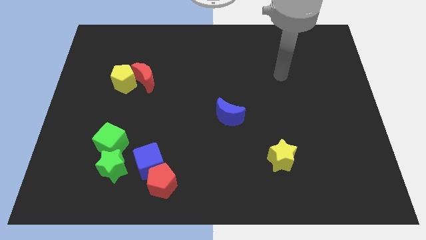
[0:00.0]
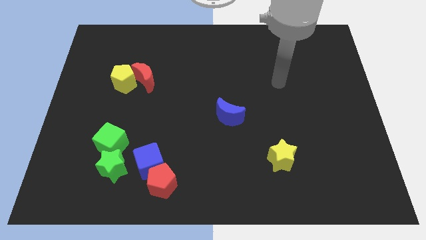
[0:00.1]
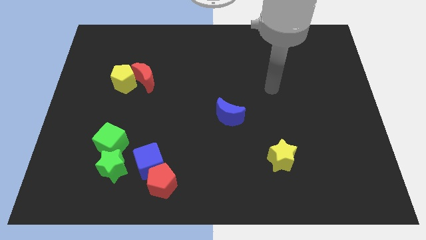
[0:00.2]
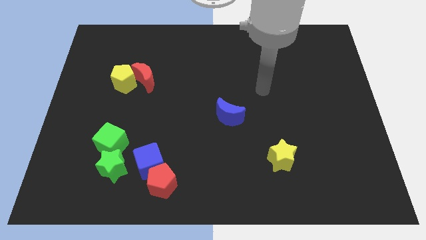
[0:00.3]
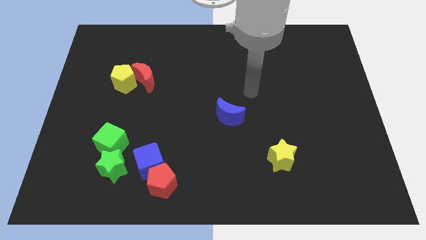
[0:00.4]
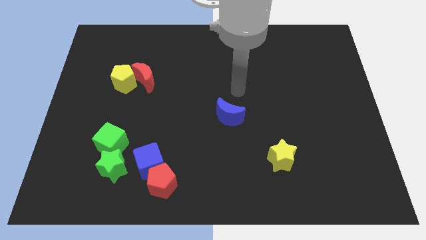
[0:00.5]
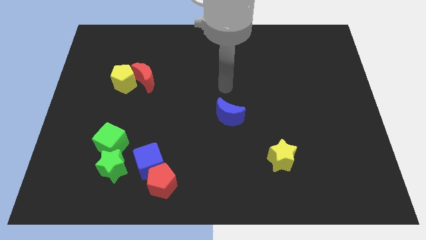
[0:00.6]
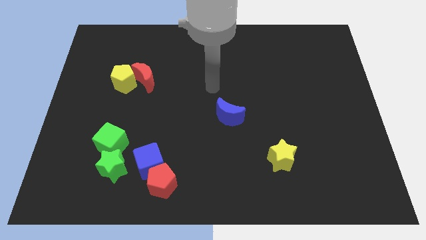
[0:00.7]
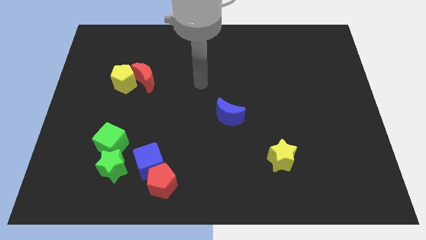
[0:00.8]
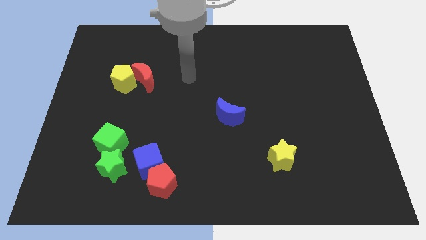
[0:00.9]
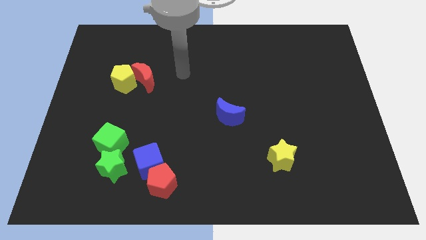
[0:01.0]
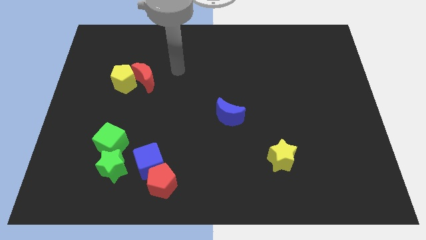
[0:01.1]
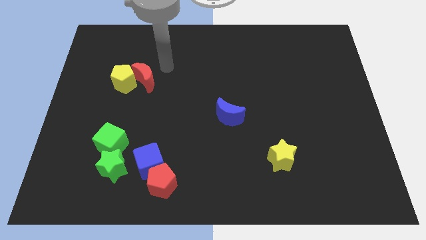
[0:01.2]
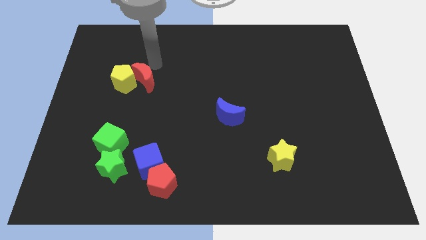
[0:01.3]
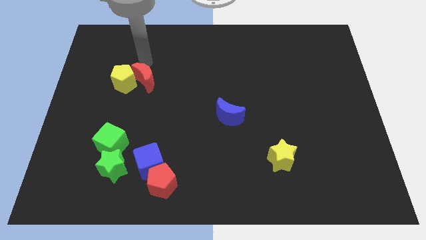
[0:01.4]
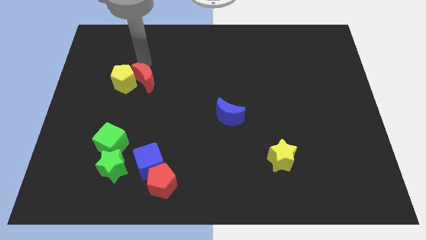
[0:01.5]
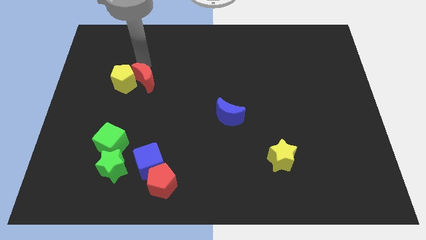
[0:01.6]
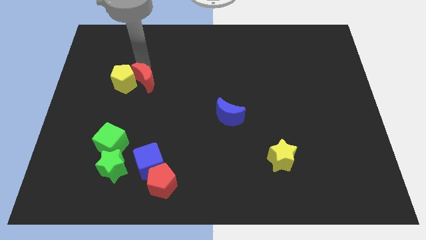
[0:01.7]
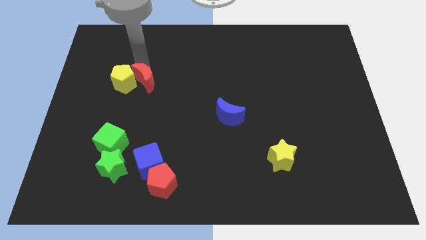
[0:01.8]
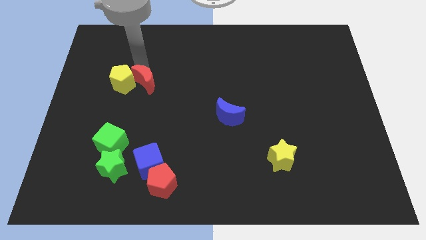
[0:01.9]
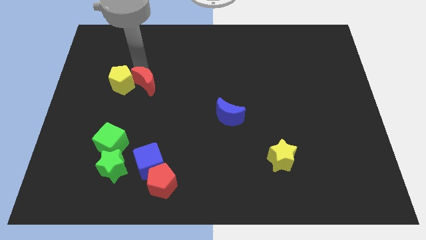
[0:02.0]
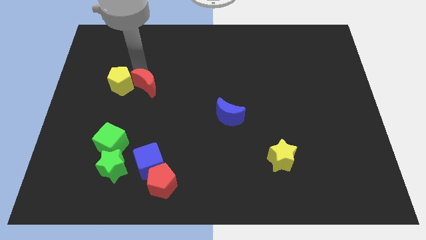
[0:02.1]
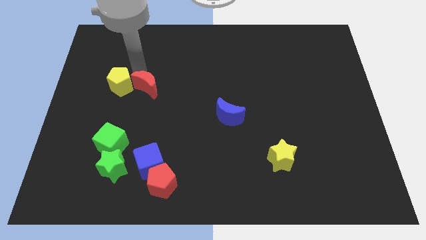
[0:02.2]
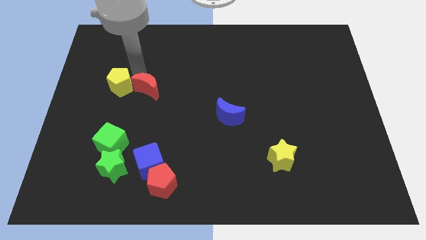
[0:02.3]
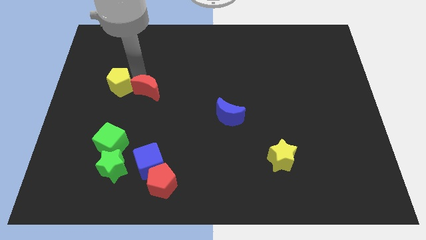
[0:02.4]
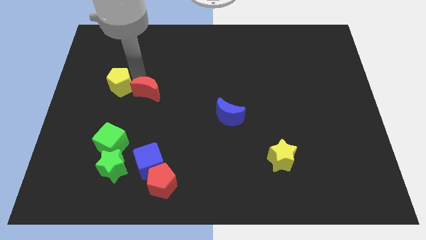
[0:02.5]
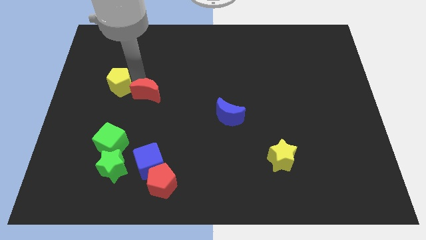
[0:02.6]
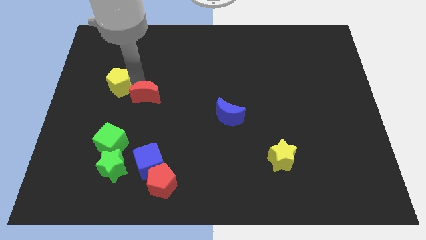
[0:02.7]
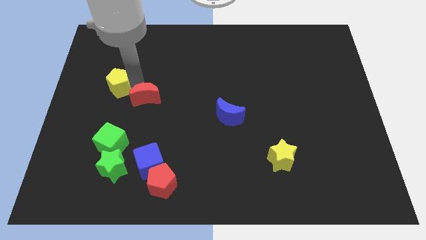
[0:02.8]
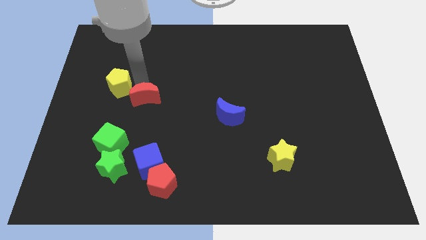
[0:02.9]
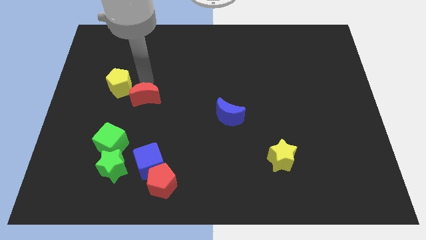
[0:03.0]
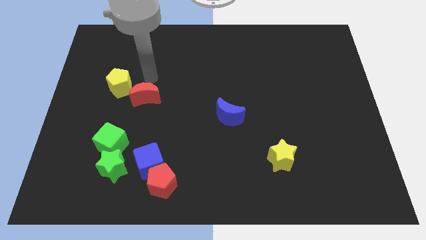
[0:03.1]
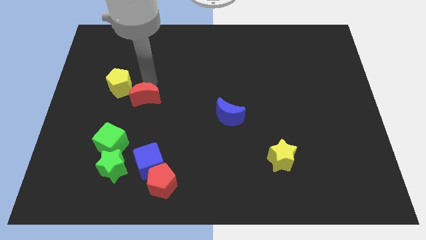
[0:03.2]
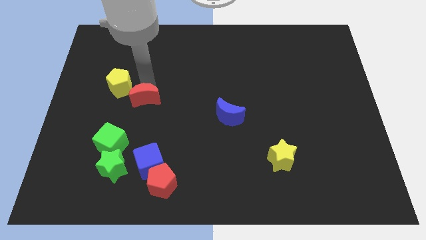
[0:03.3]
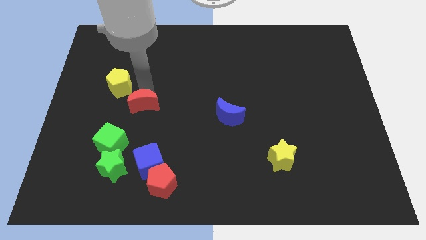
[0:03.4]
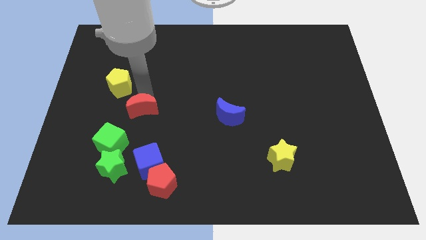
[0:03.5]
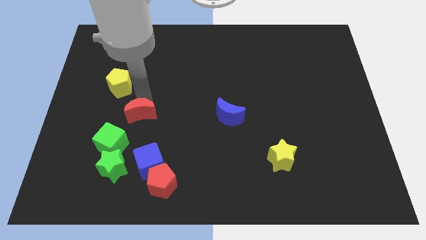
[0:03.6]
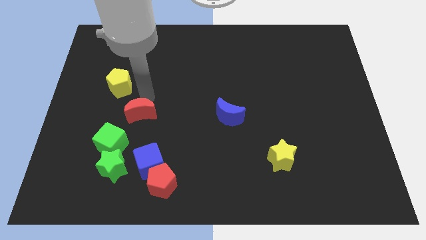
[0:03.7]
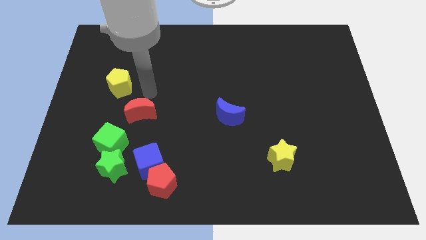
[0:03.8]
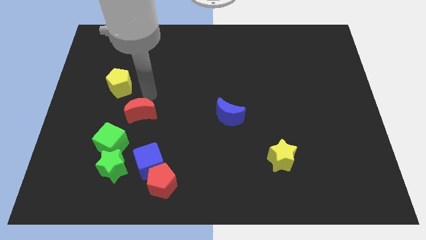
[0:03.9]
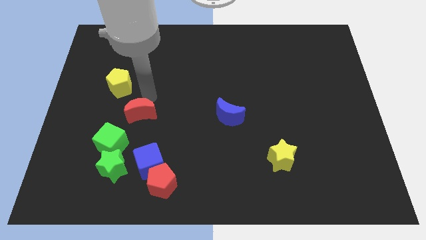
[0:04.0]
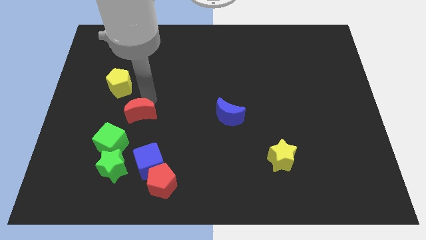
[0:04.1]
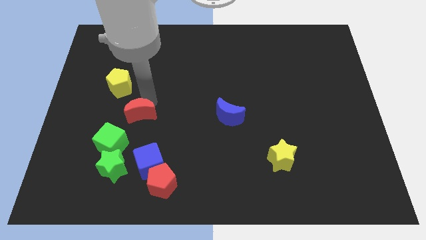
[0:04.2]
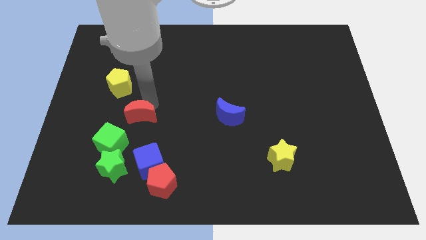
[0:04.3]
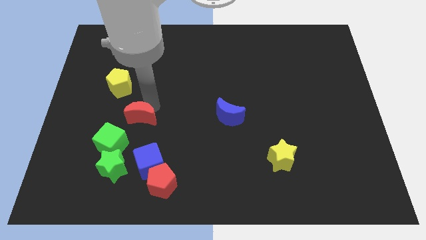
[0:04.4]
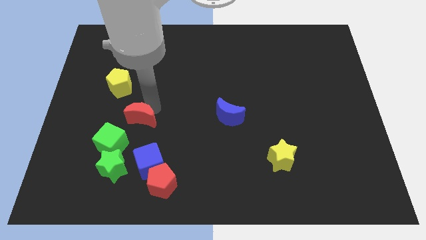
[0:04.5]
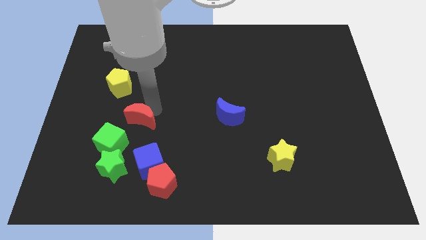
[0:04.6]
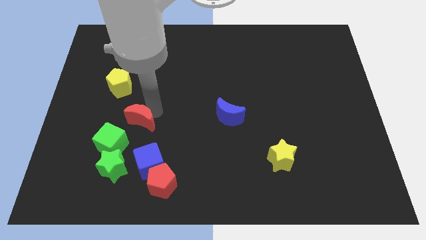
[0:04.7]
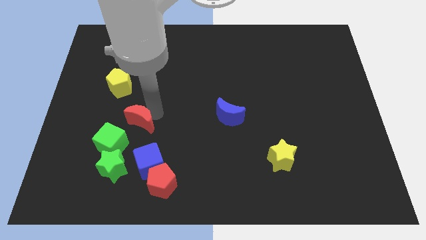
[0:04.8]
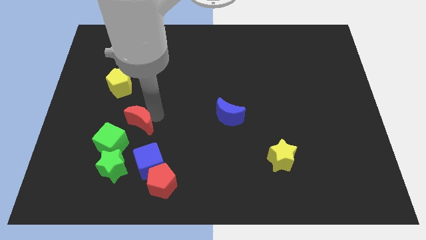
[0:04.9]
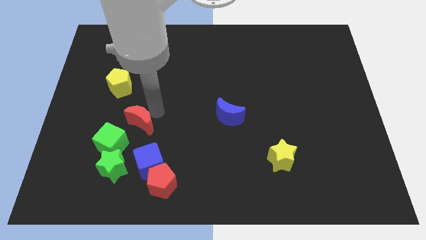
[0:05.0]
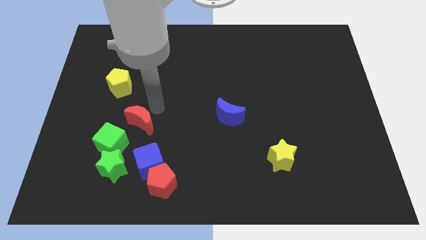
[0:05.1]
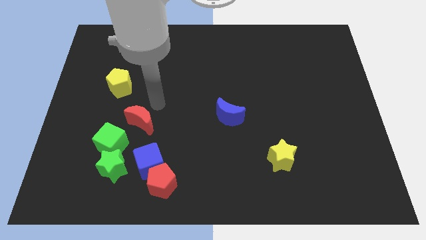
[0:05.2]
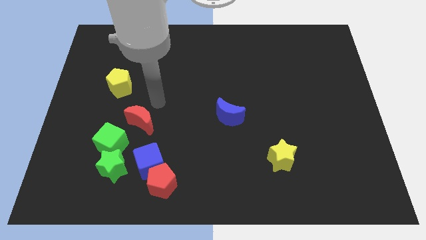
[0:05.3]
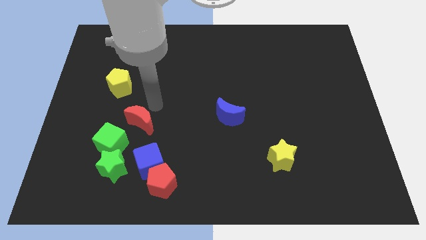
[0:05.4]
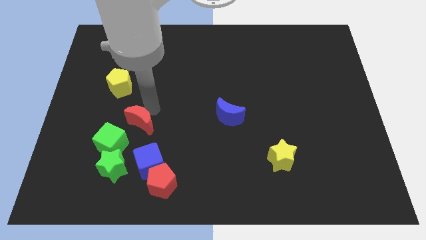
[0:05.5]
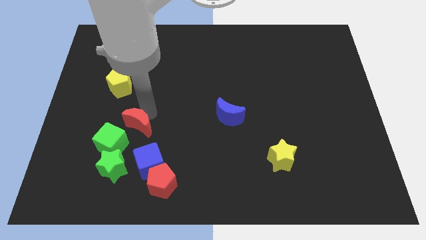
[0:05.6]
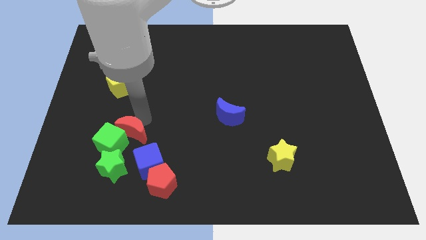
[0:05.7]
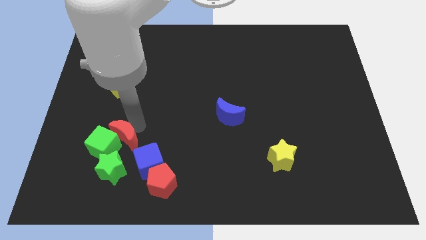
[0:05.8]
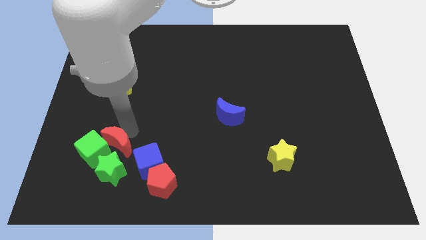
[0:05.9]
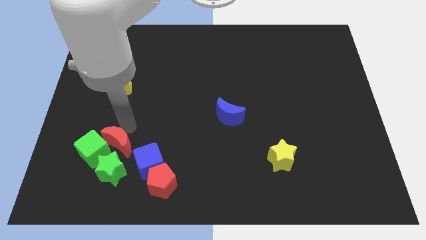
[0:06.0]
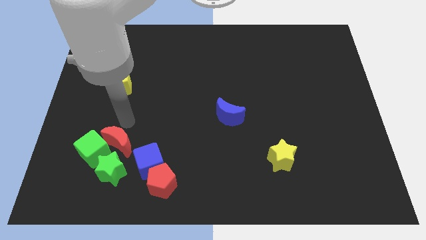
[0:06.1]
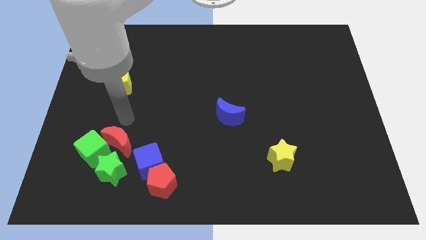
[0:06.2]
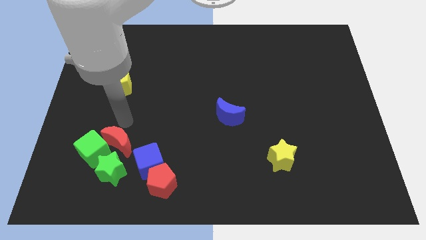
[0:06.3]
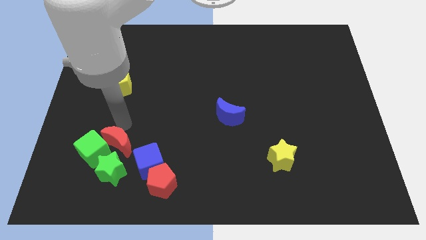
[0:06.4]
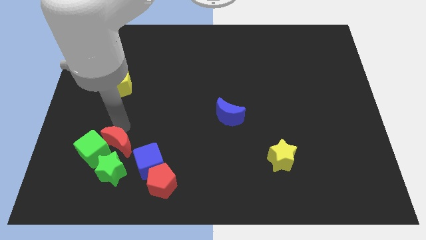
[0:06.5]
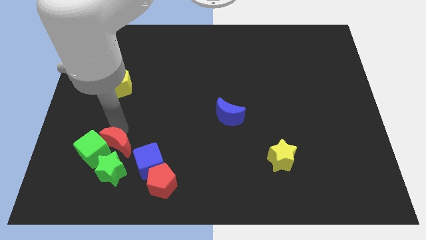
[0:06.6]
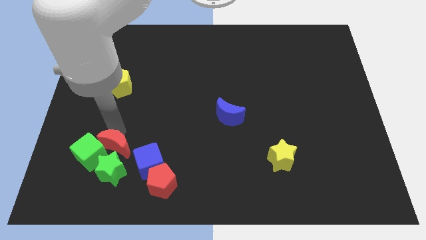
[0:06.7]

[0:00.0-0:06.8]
slide the red moon next to the green star
